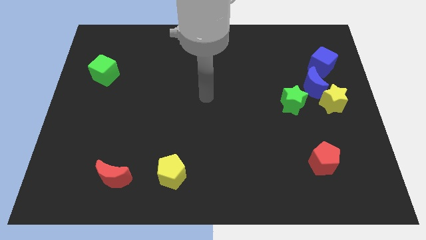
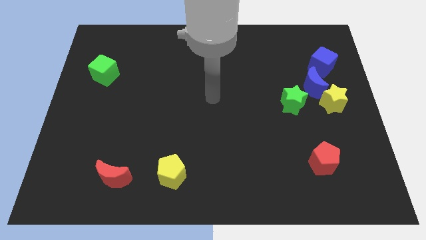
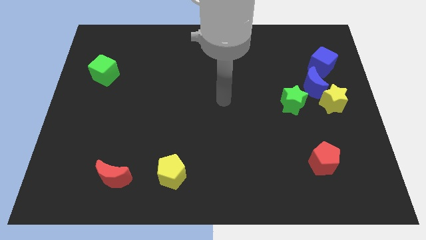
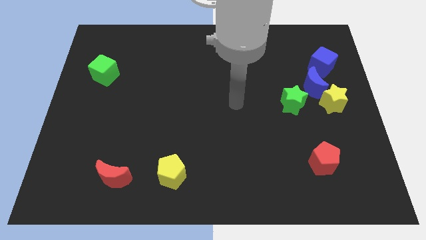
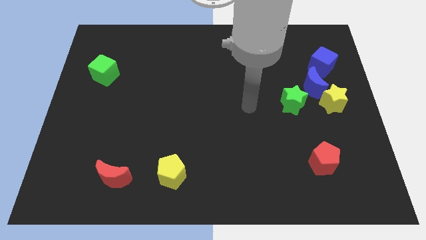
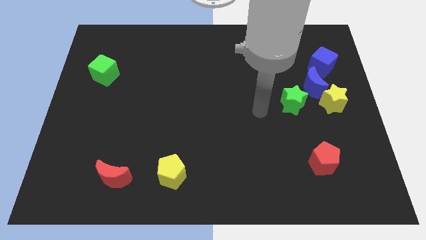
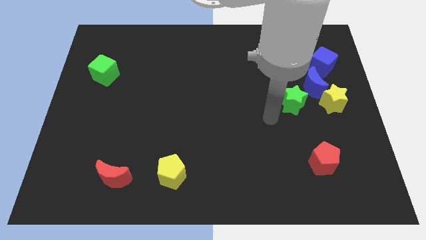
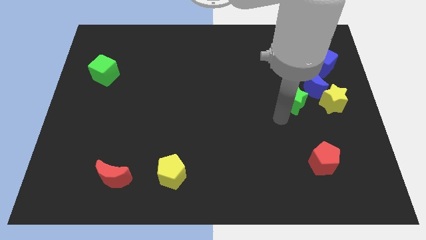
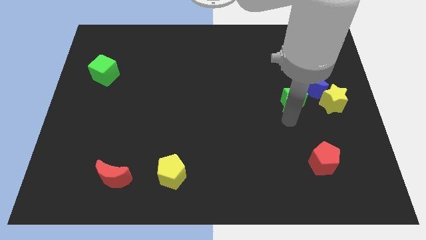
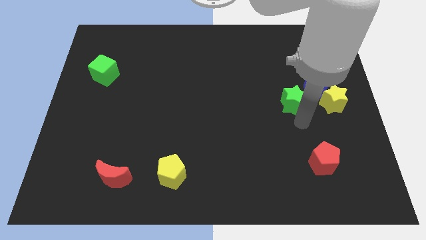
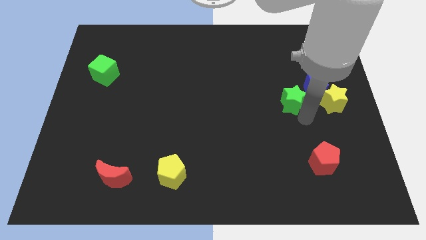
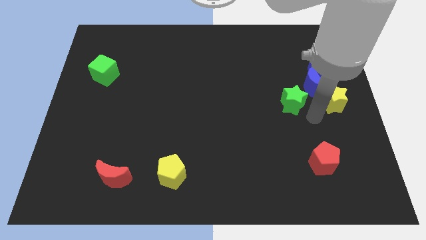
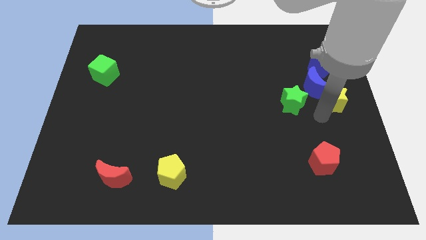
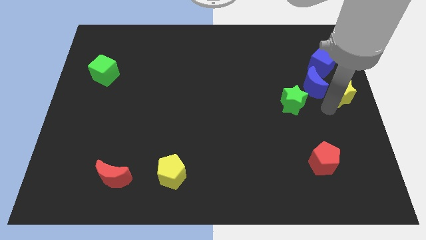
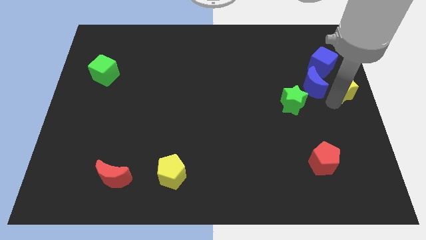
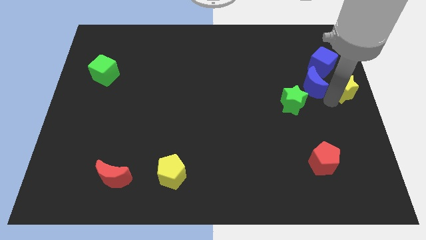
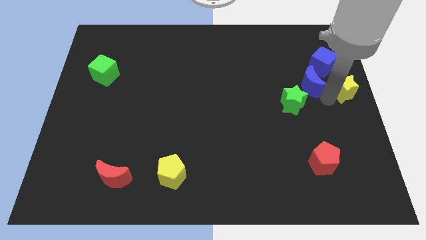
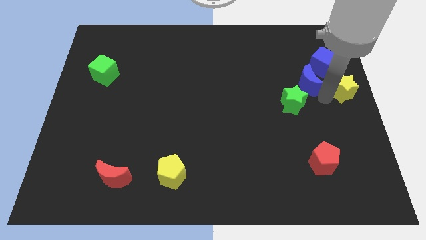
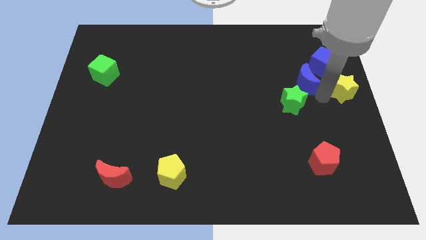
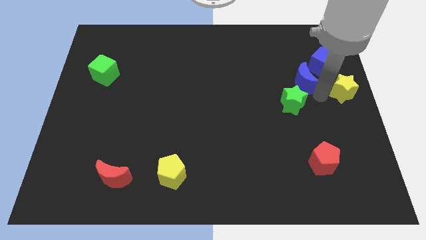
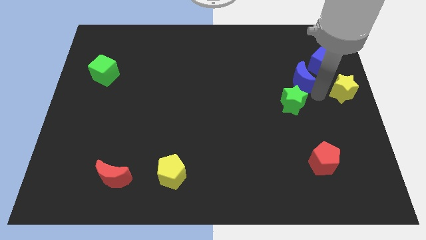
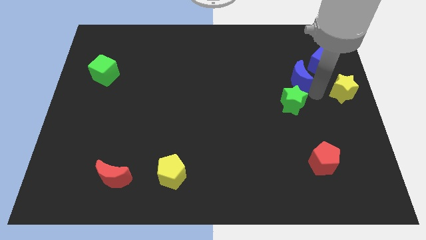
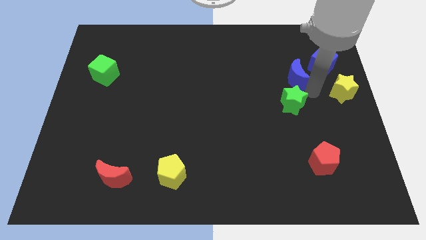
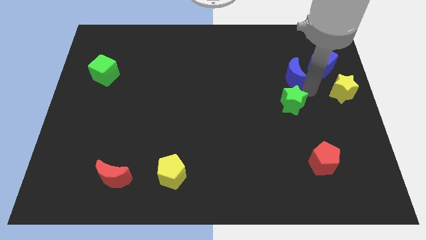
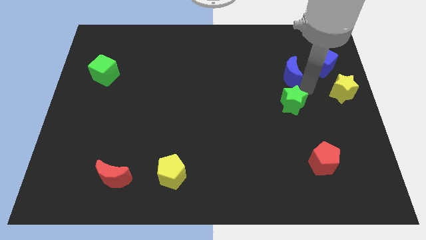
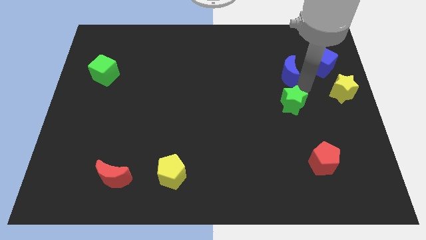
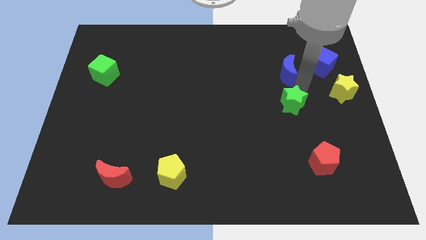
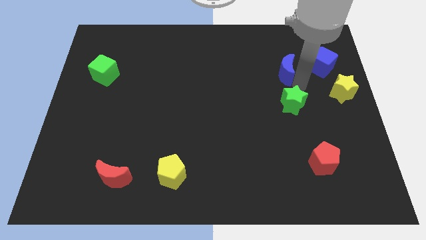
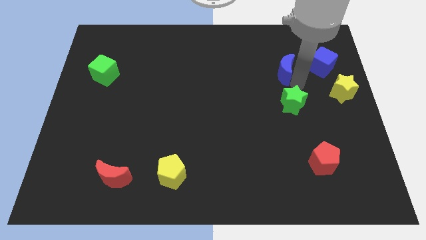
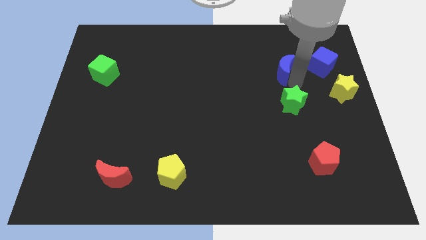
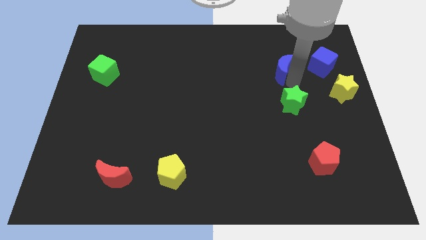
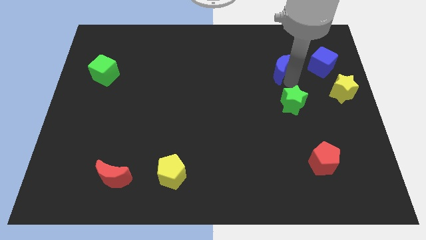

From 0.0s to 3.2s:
pull the blue moon apart from the yellow star, green star, and blue cube

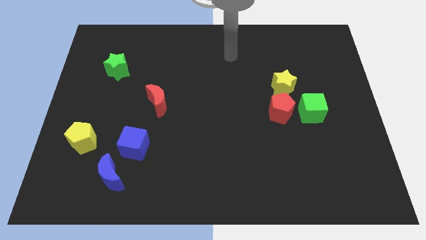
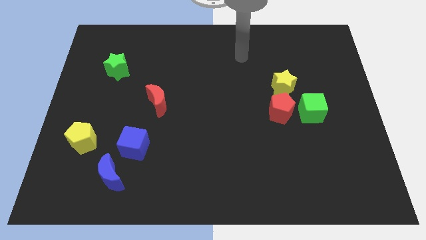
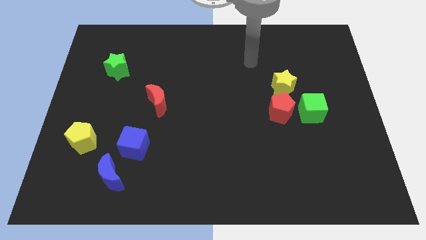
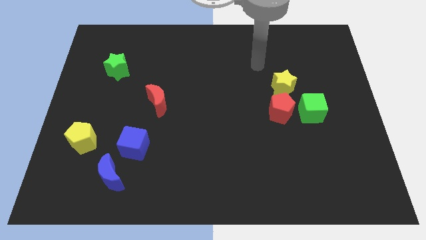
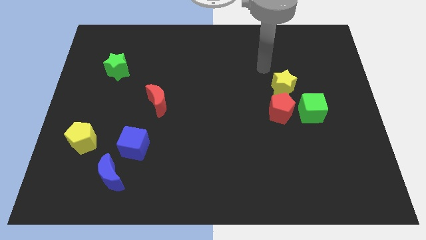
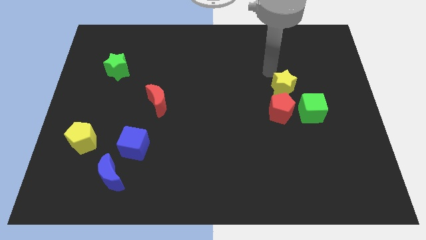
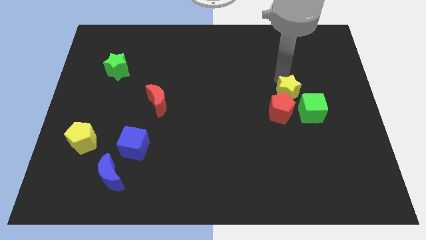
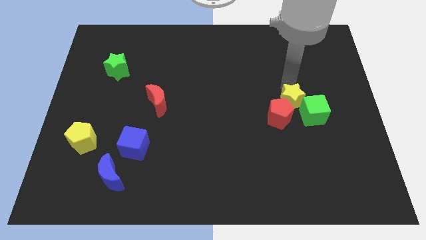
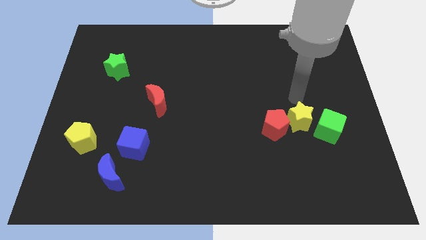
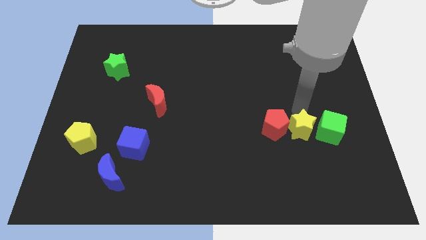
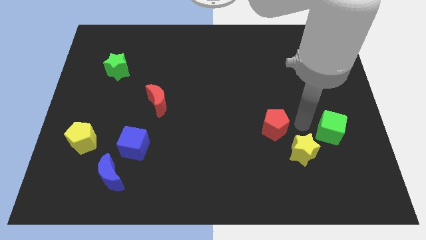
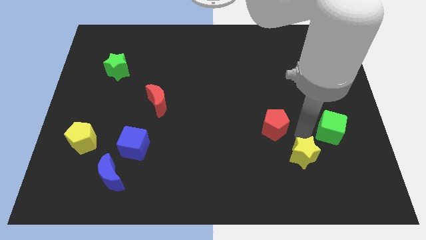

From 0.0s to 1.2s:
separate the red pentagon from the yellow star and green cube

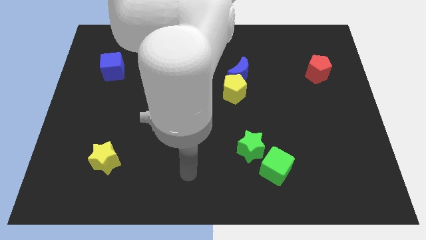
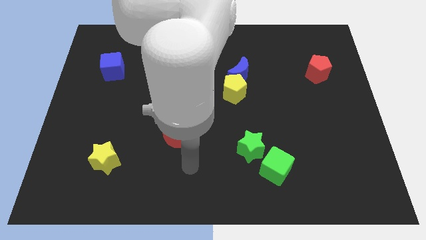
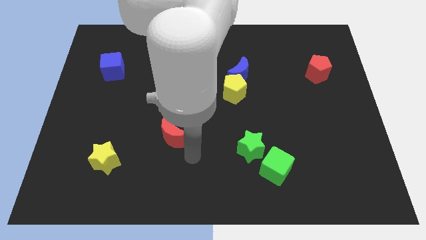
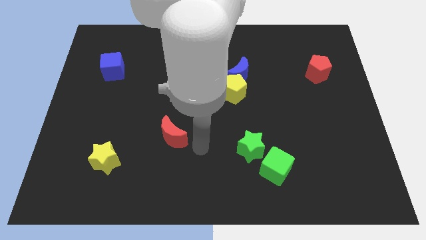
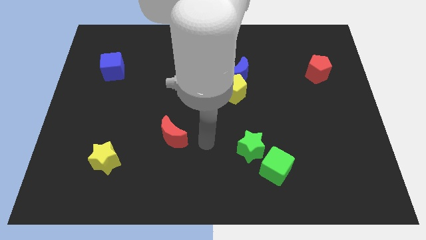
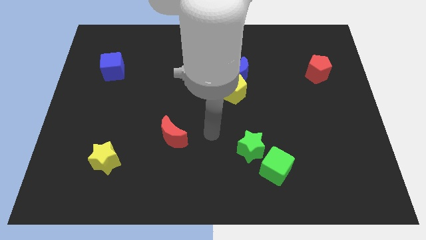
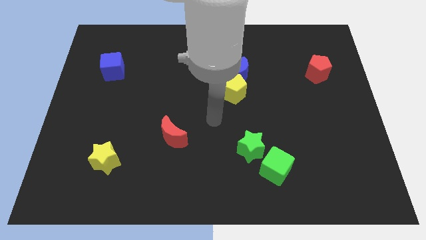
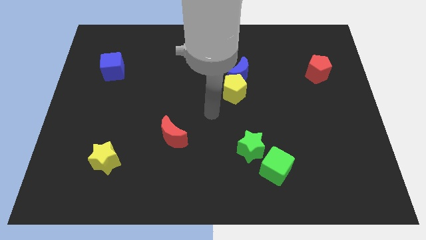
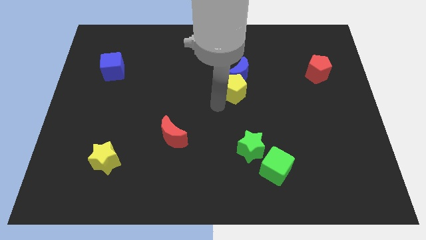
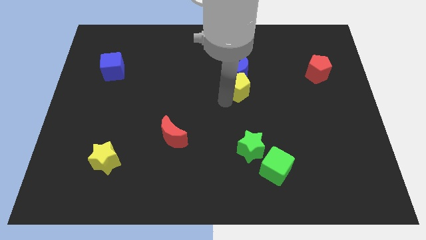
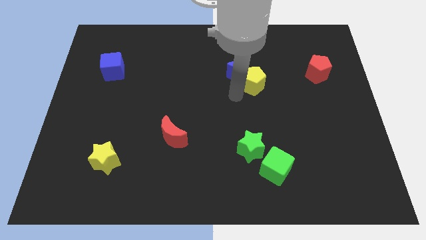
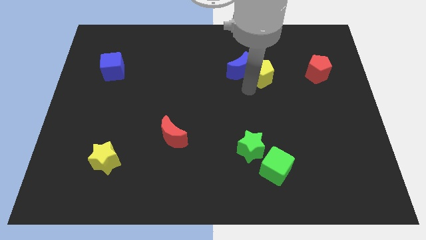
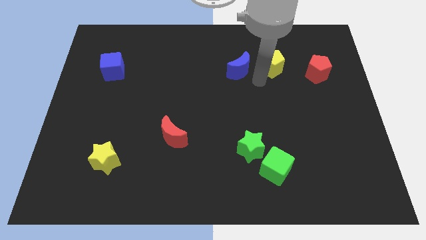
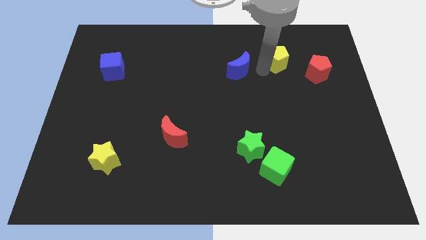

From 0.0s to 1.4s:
move the blue moon away from the yellow pentagon

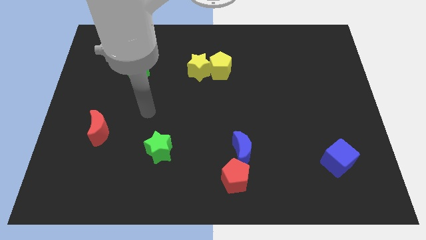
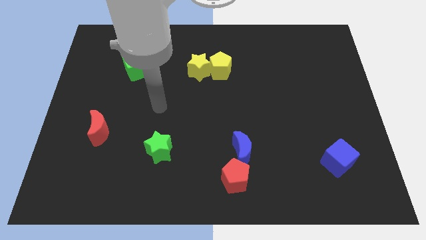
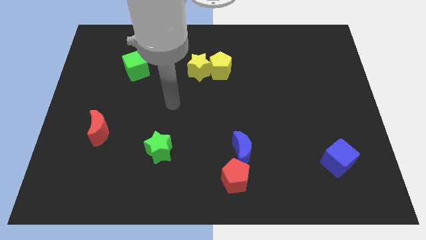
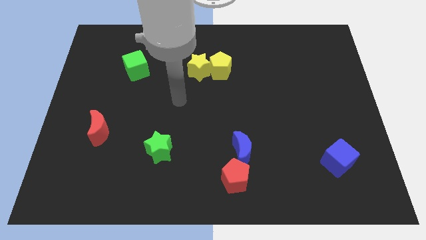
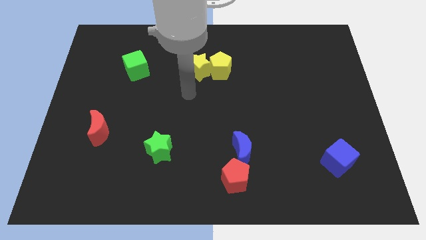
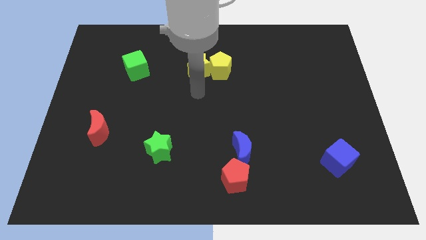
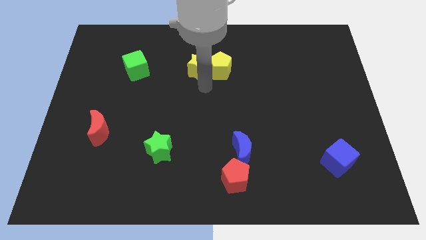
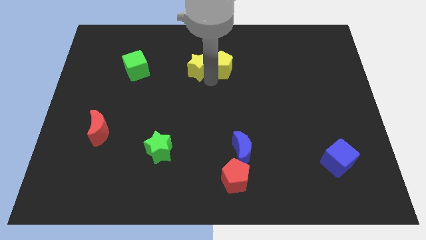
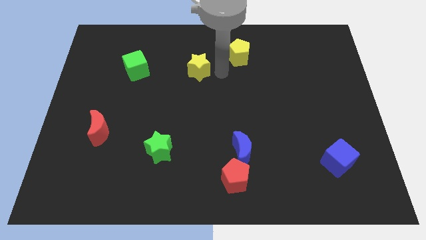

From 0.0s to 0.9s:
separate the yellow star from the yellow pentagon

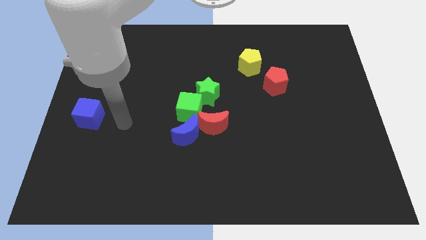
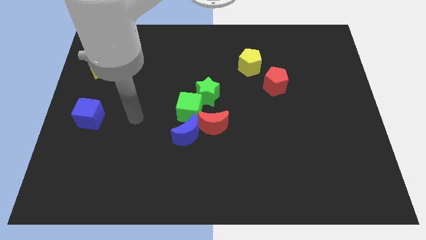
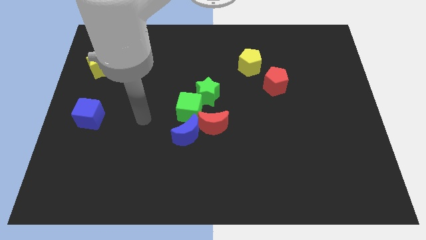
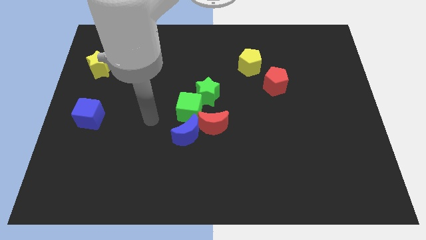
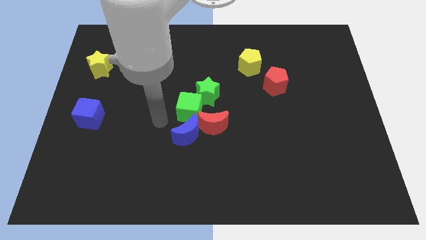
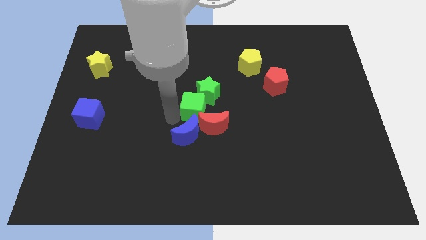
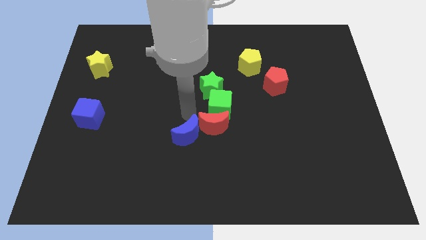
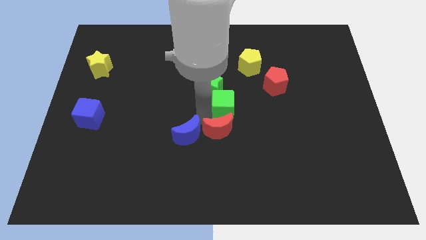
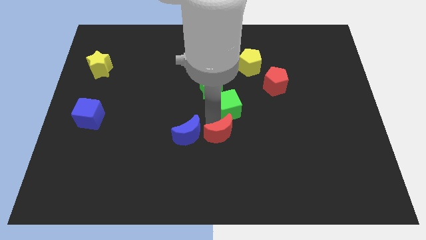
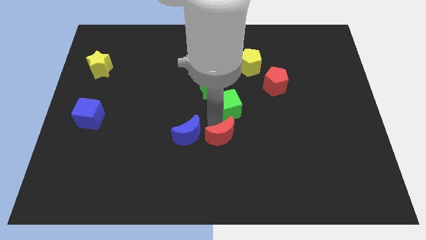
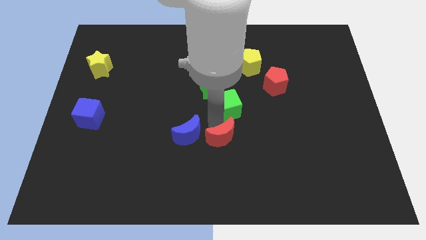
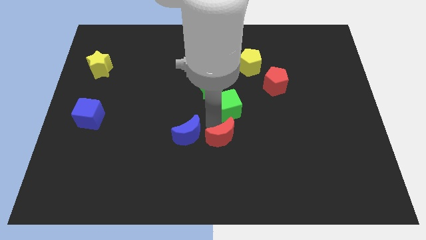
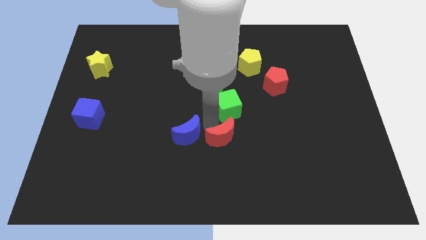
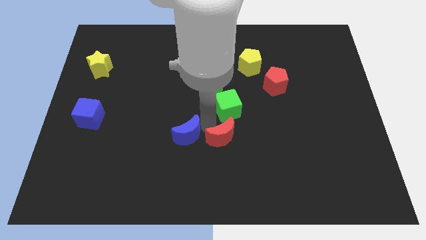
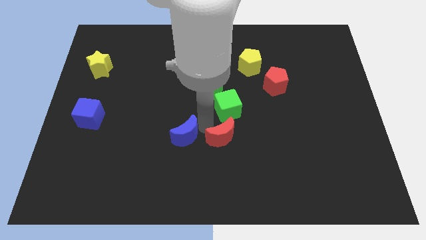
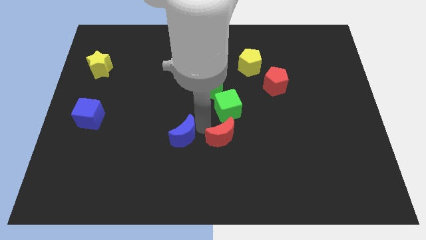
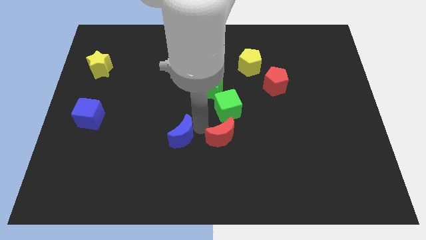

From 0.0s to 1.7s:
separate the blue moon from the red moon and green cube

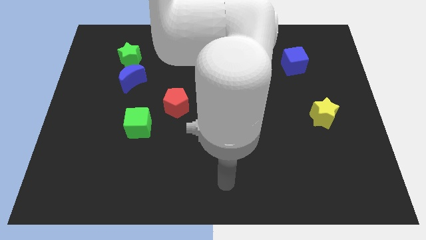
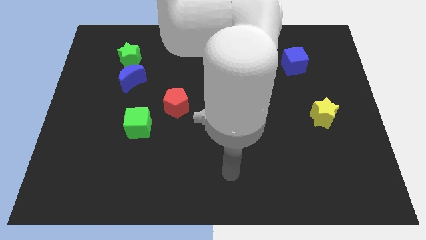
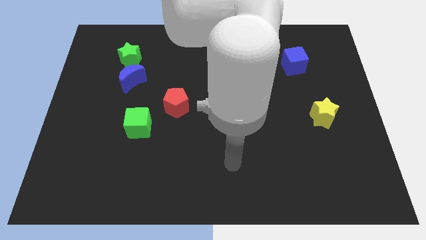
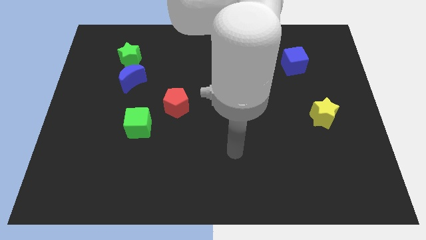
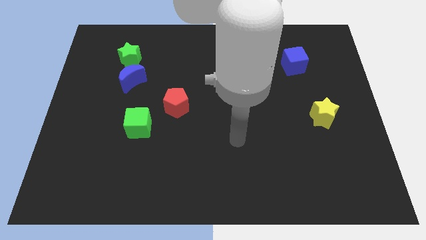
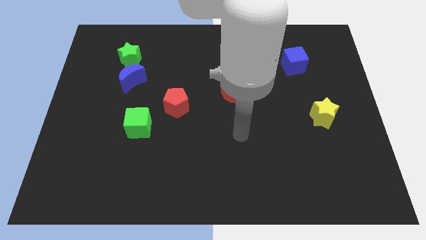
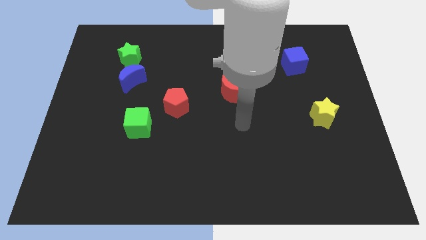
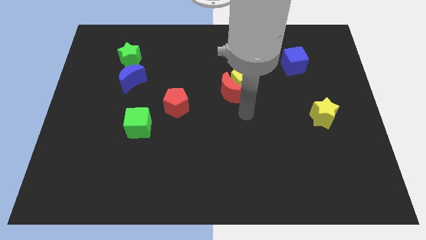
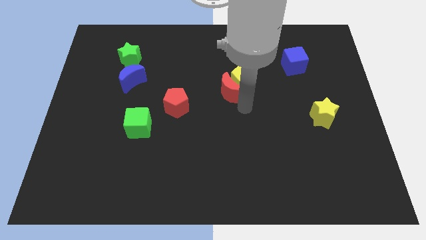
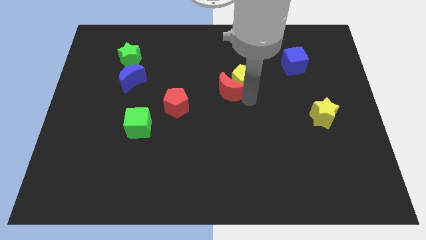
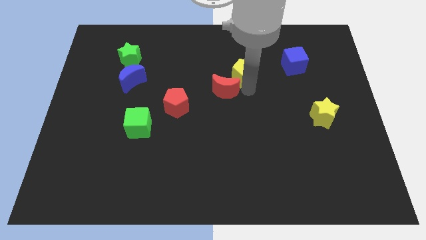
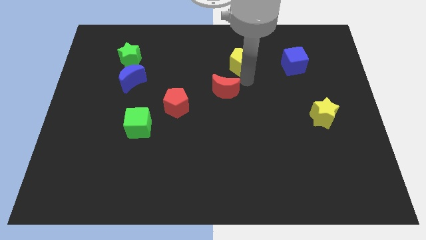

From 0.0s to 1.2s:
separate the red moon from the yellow pentagon
